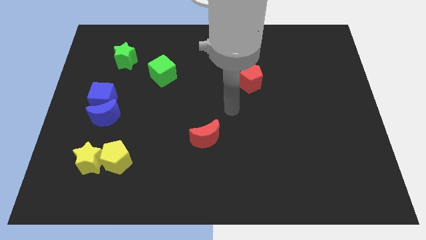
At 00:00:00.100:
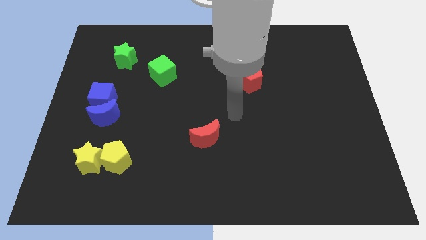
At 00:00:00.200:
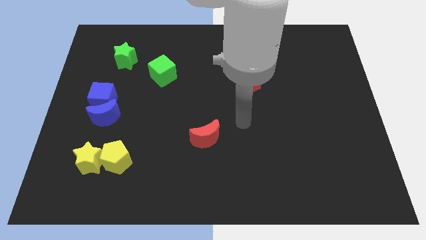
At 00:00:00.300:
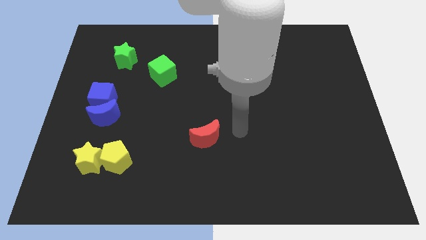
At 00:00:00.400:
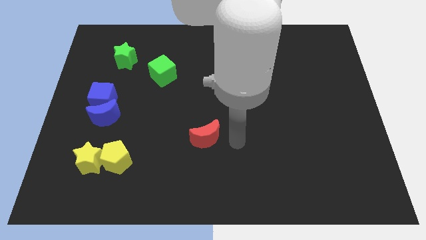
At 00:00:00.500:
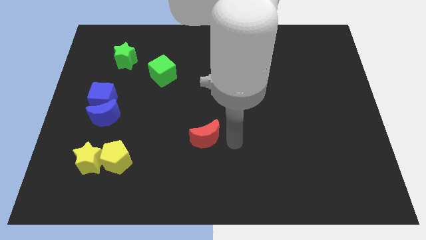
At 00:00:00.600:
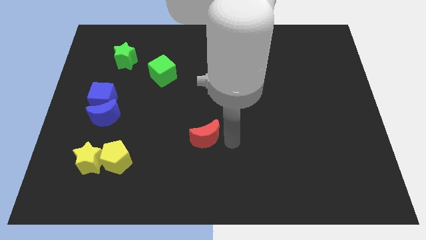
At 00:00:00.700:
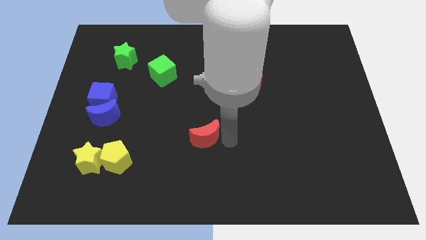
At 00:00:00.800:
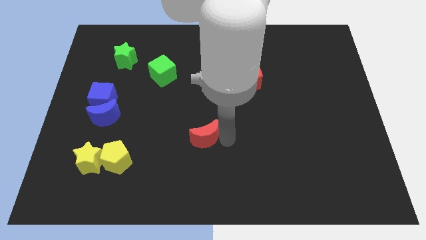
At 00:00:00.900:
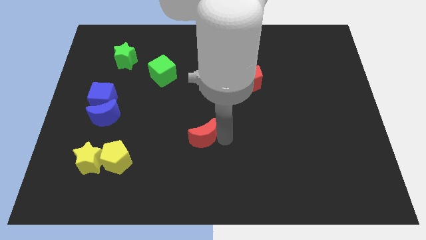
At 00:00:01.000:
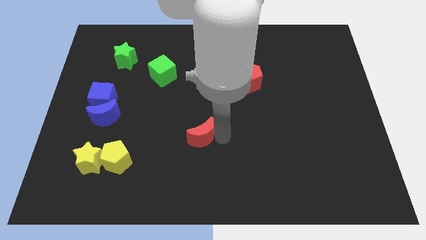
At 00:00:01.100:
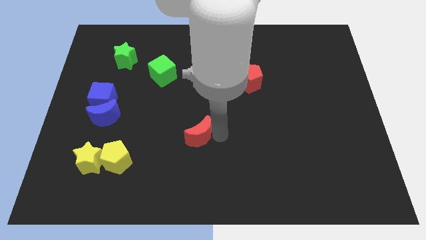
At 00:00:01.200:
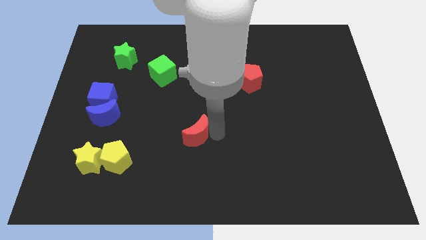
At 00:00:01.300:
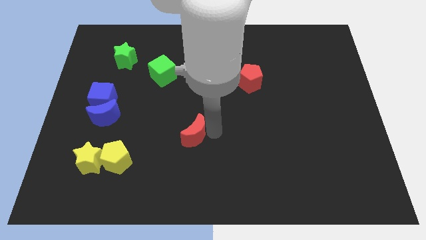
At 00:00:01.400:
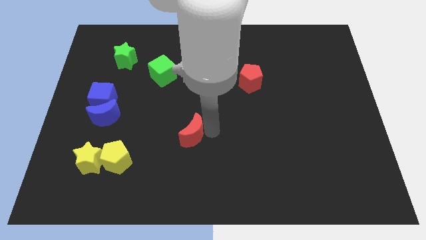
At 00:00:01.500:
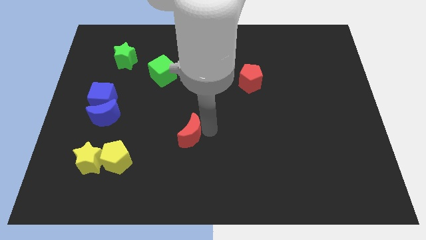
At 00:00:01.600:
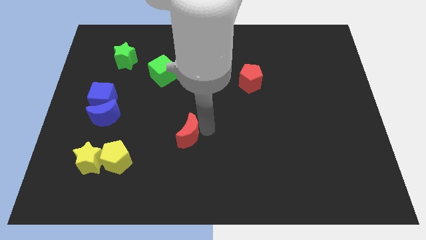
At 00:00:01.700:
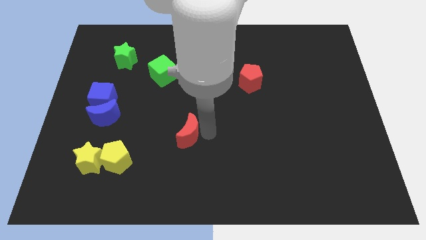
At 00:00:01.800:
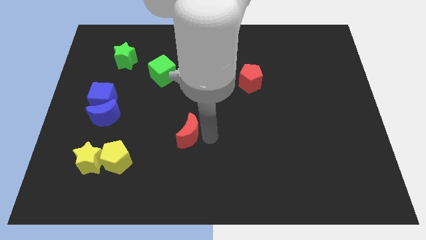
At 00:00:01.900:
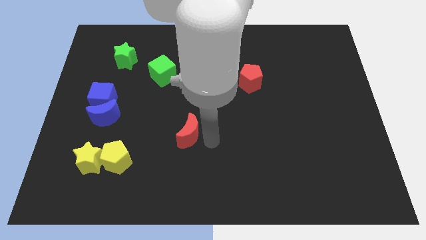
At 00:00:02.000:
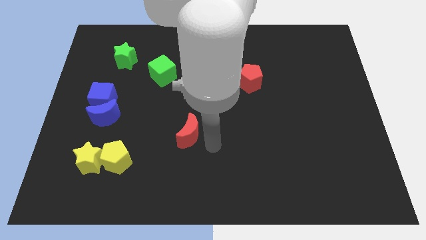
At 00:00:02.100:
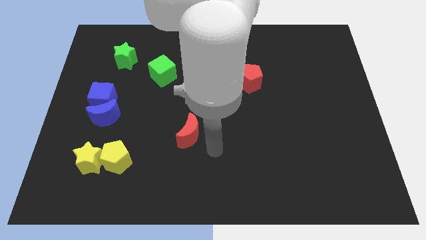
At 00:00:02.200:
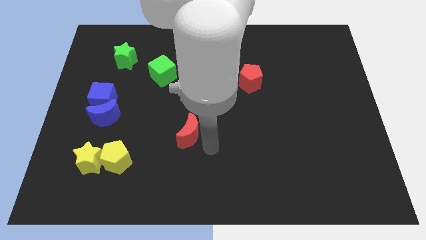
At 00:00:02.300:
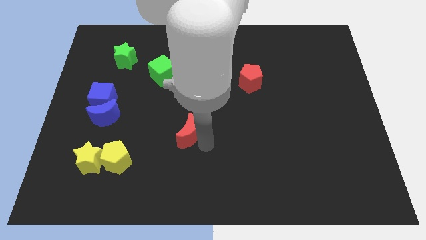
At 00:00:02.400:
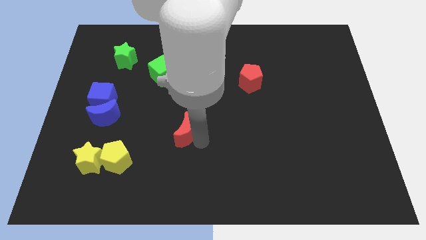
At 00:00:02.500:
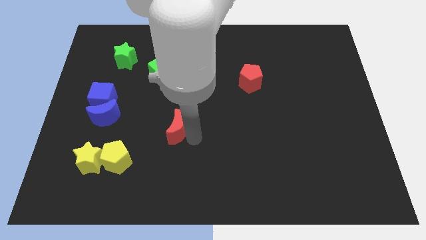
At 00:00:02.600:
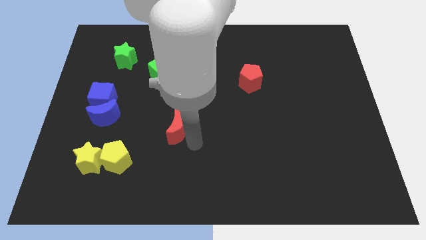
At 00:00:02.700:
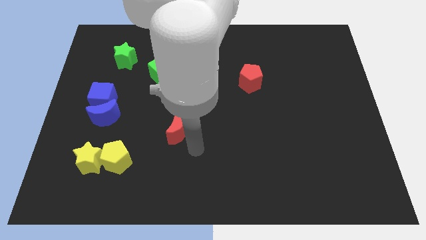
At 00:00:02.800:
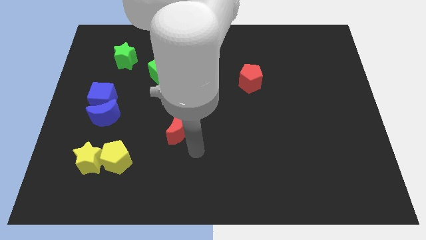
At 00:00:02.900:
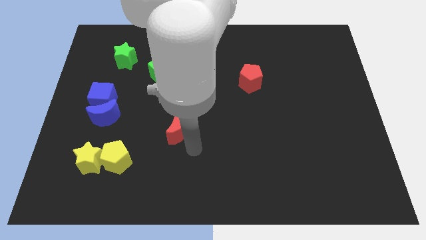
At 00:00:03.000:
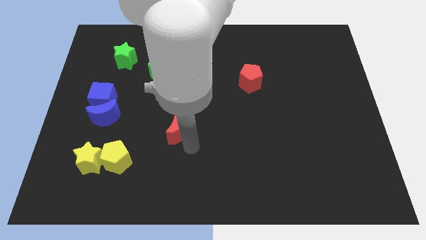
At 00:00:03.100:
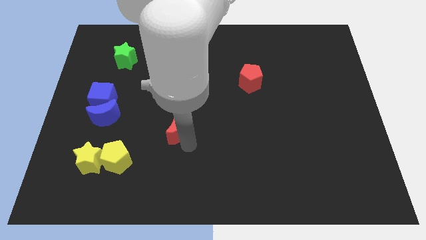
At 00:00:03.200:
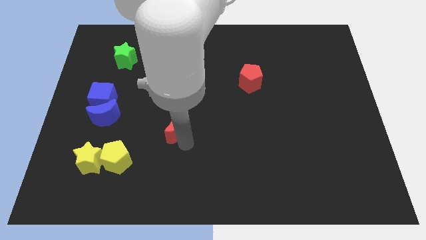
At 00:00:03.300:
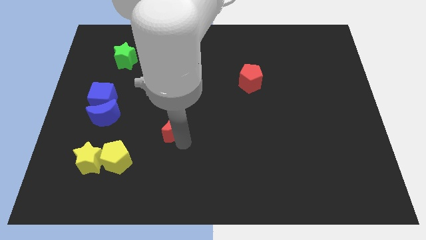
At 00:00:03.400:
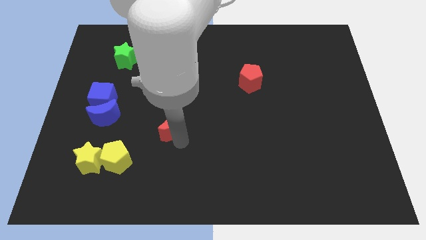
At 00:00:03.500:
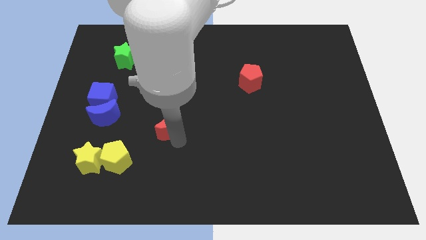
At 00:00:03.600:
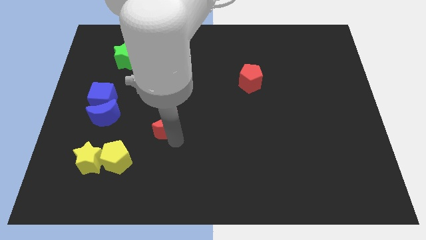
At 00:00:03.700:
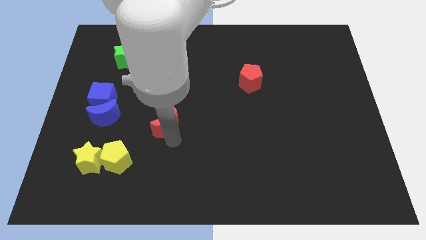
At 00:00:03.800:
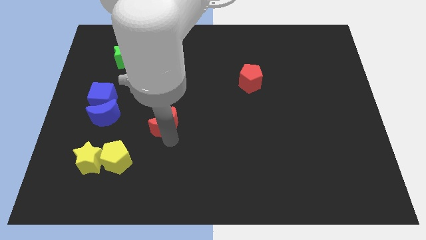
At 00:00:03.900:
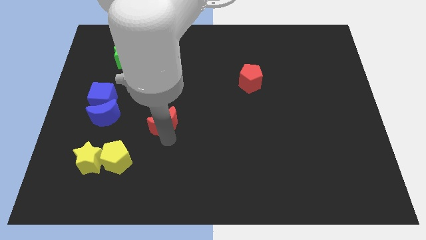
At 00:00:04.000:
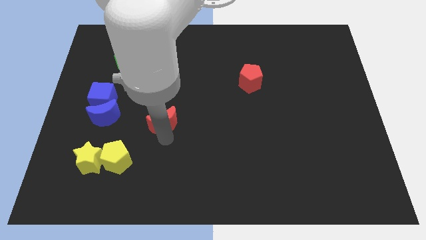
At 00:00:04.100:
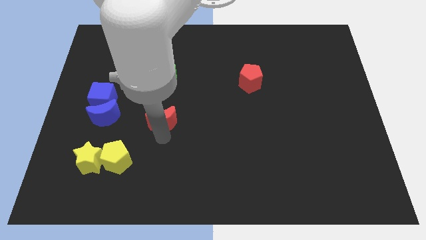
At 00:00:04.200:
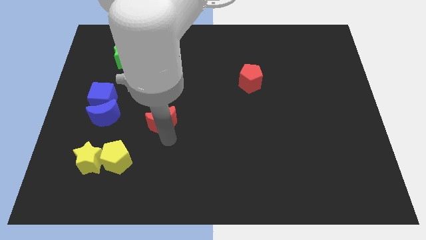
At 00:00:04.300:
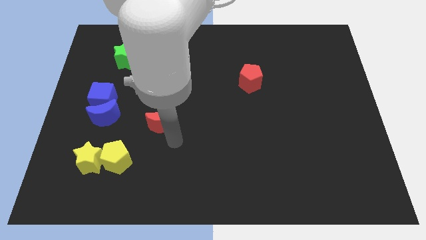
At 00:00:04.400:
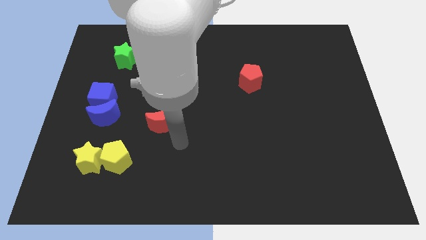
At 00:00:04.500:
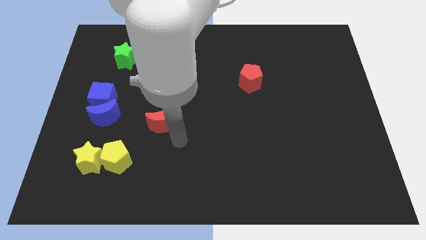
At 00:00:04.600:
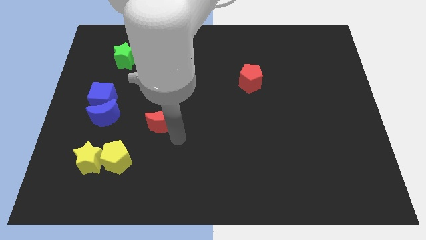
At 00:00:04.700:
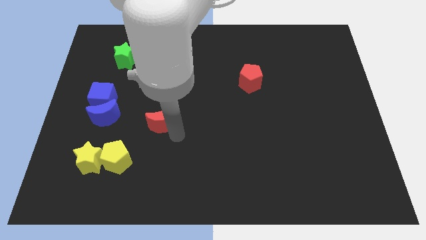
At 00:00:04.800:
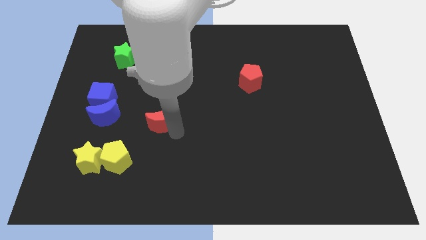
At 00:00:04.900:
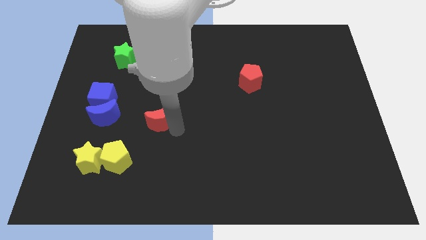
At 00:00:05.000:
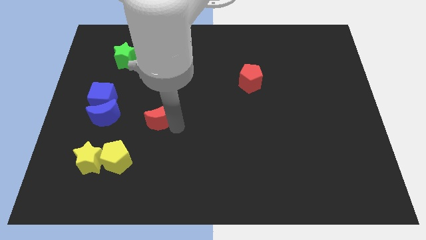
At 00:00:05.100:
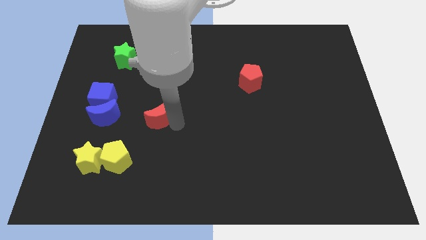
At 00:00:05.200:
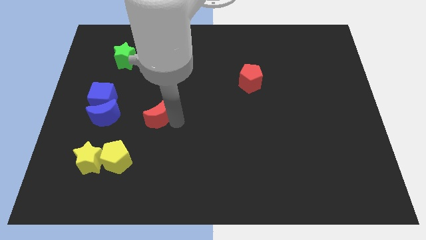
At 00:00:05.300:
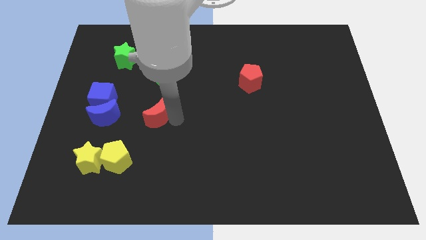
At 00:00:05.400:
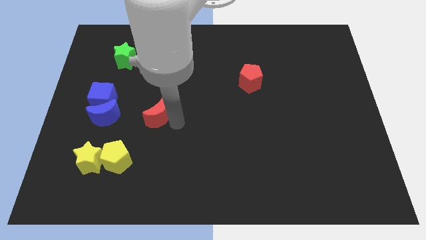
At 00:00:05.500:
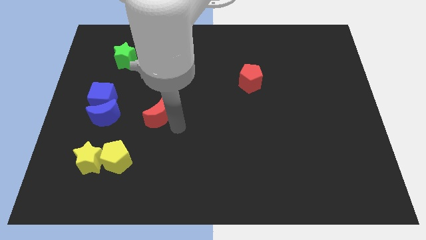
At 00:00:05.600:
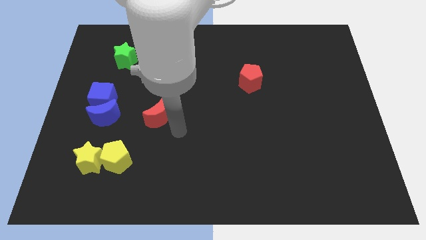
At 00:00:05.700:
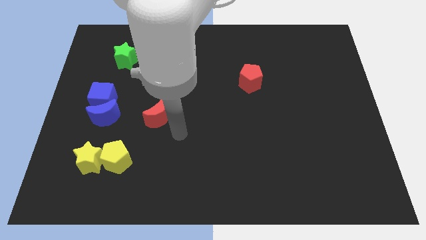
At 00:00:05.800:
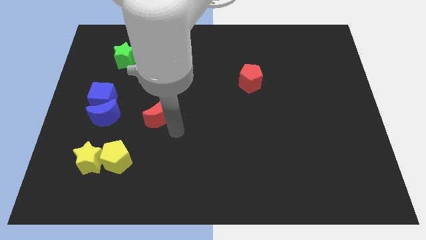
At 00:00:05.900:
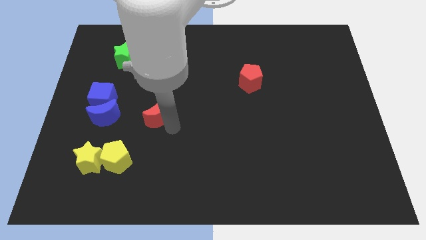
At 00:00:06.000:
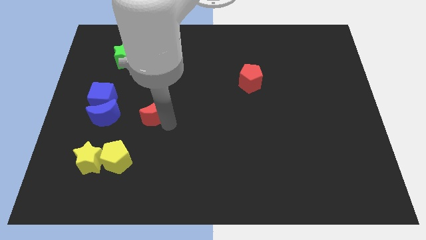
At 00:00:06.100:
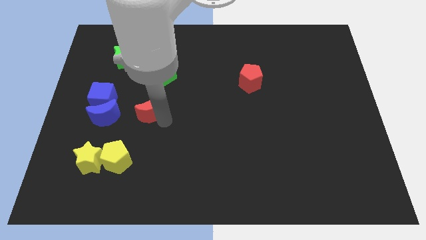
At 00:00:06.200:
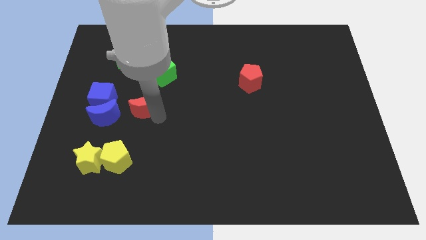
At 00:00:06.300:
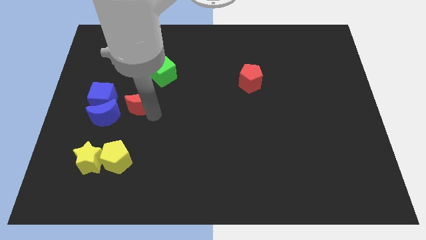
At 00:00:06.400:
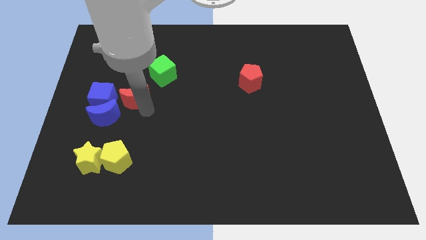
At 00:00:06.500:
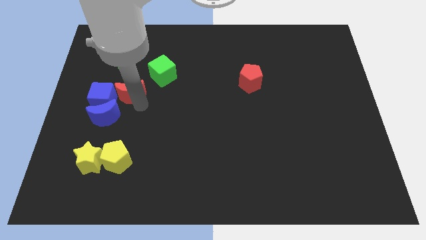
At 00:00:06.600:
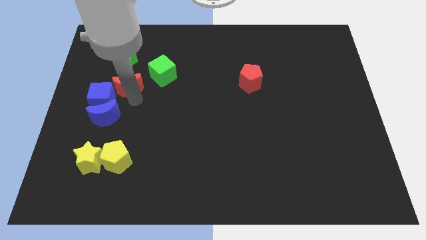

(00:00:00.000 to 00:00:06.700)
slide the red moon just left of the green cube

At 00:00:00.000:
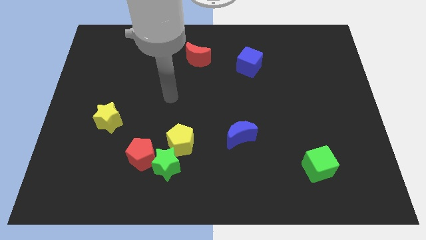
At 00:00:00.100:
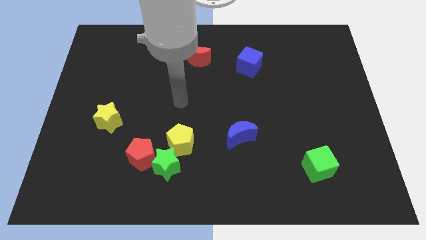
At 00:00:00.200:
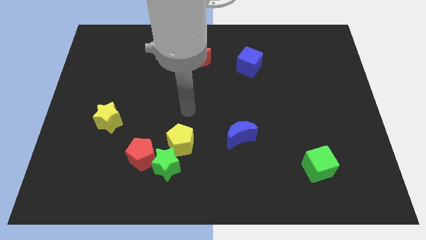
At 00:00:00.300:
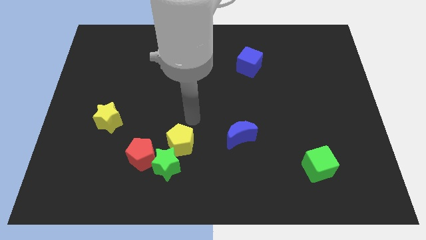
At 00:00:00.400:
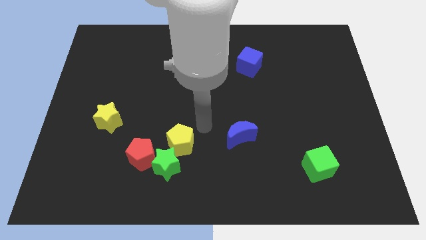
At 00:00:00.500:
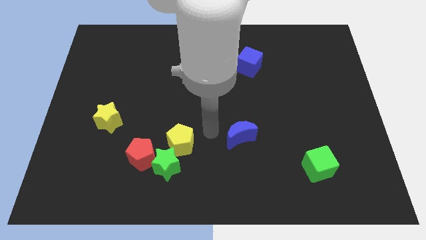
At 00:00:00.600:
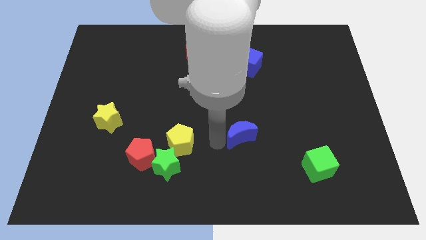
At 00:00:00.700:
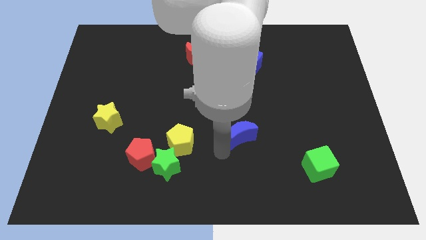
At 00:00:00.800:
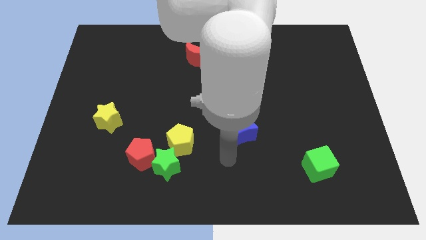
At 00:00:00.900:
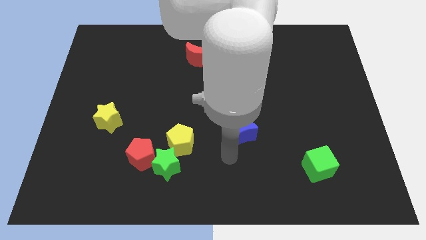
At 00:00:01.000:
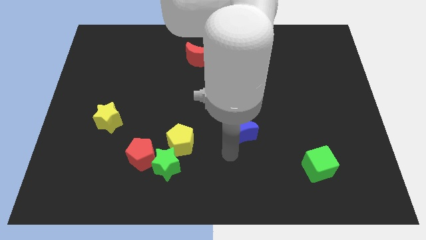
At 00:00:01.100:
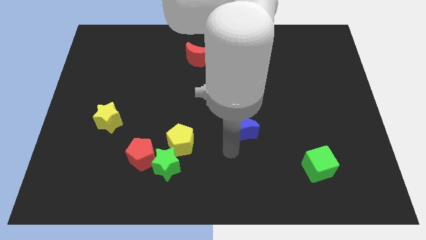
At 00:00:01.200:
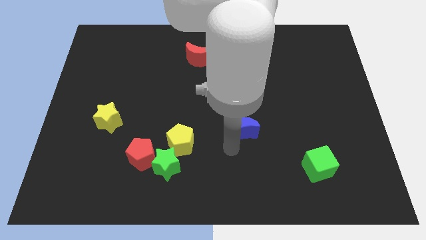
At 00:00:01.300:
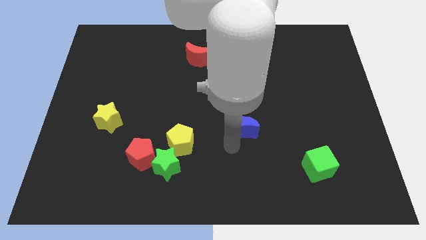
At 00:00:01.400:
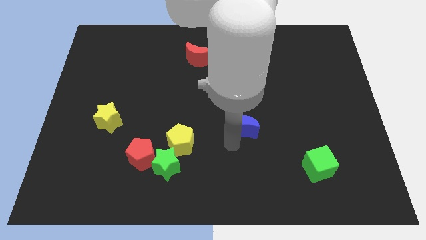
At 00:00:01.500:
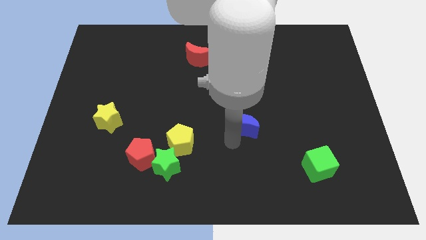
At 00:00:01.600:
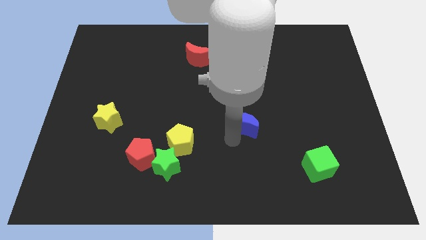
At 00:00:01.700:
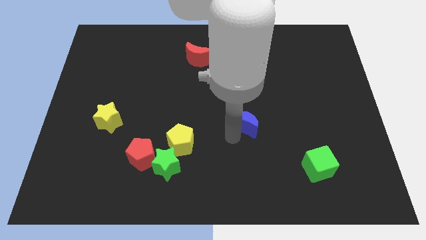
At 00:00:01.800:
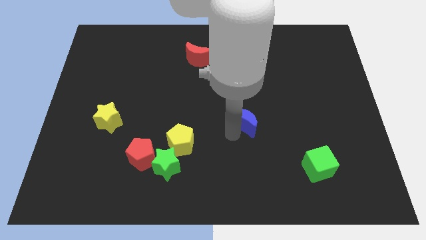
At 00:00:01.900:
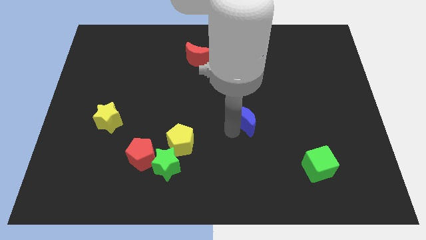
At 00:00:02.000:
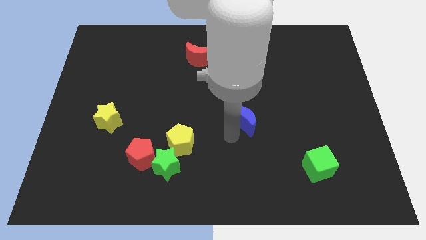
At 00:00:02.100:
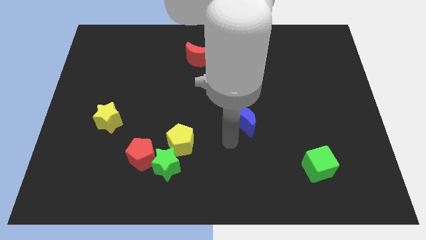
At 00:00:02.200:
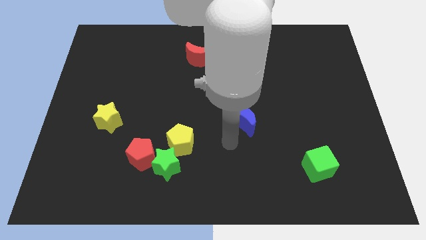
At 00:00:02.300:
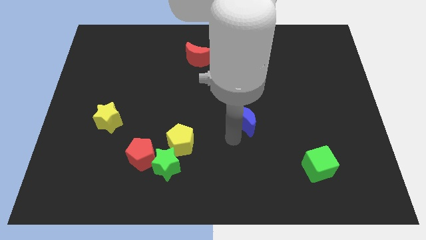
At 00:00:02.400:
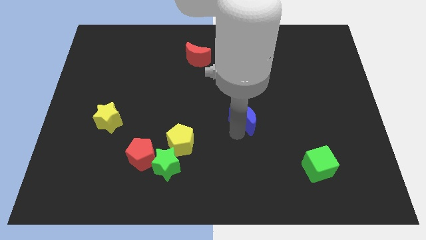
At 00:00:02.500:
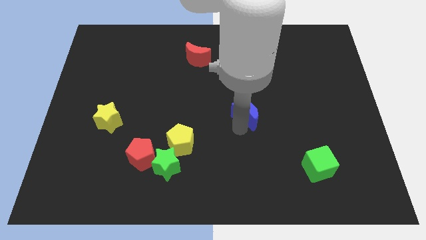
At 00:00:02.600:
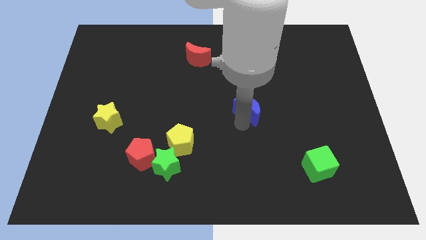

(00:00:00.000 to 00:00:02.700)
move the blue moon to the bottom side of the blue cube
